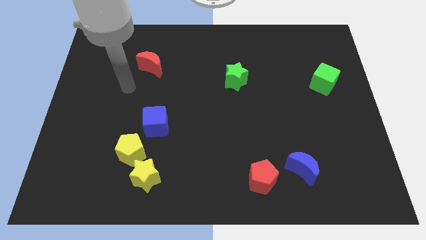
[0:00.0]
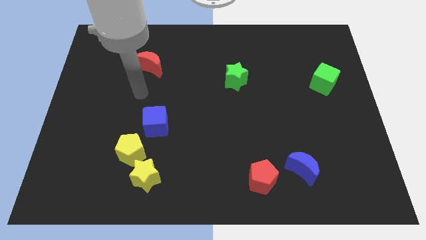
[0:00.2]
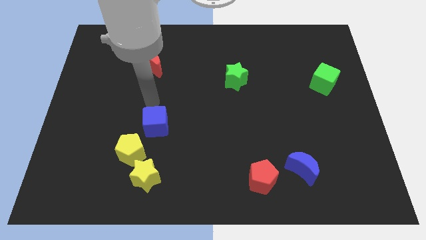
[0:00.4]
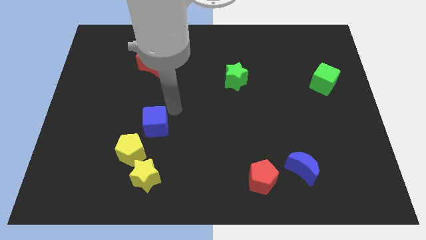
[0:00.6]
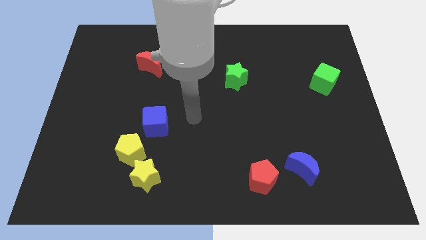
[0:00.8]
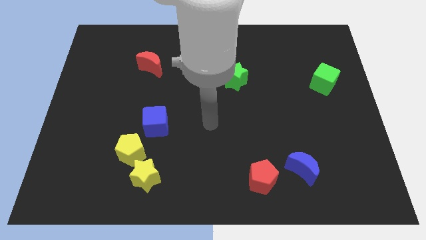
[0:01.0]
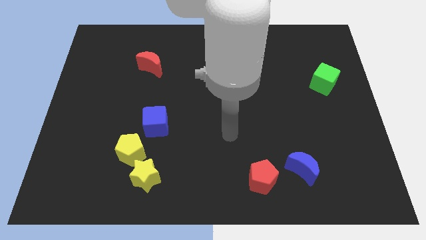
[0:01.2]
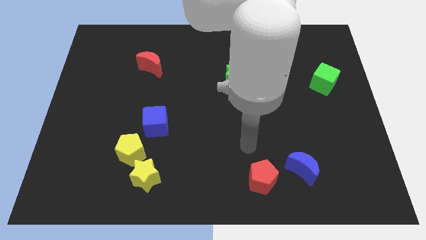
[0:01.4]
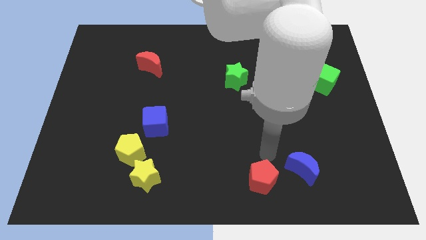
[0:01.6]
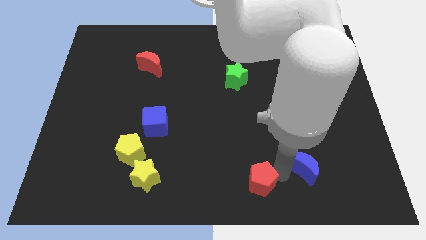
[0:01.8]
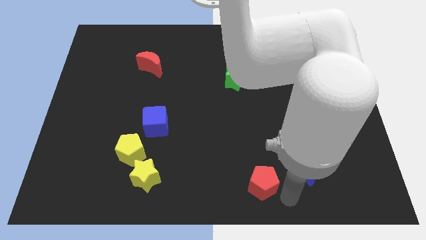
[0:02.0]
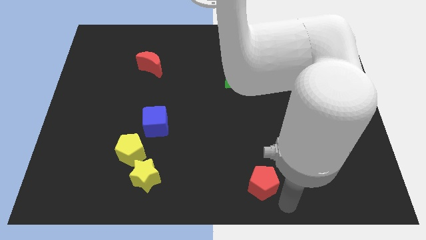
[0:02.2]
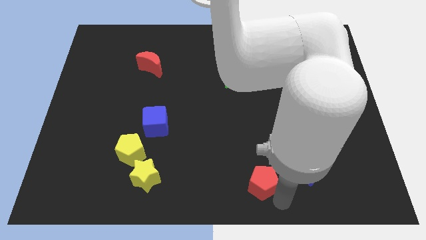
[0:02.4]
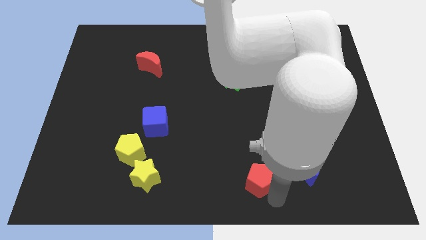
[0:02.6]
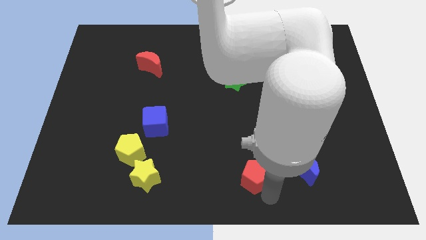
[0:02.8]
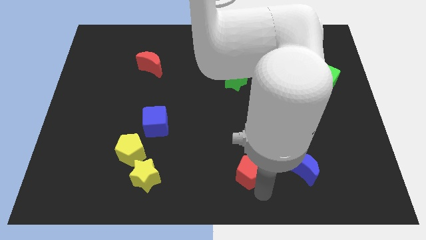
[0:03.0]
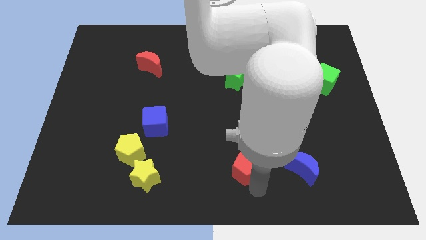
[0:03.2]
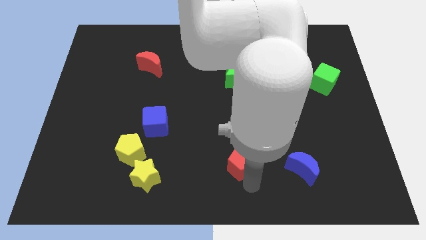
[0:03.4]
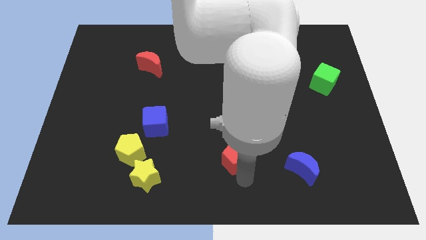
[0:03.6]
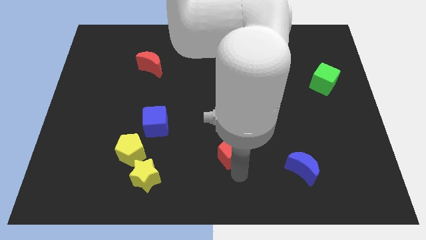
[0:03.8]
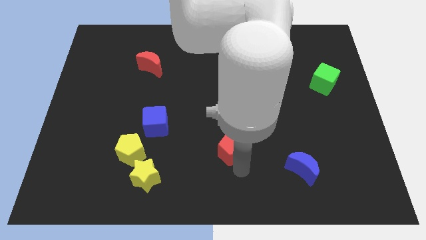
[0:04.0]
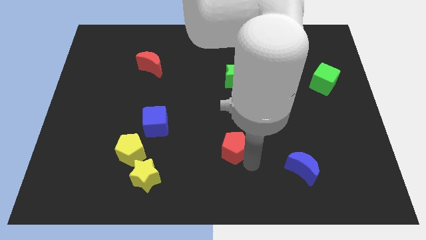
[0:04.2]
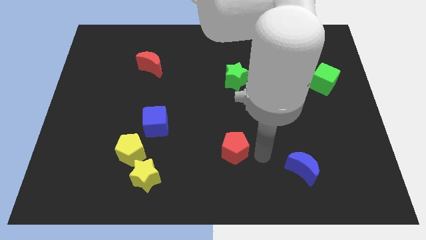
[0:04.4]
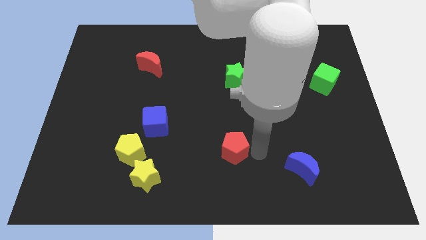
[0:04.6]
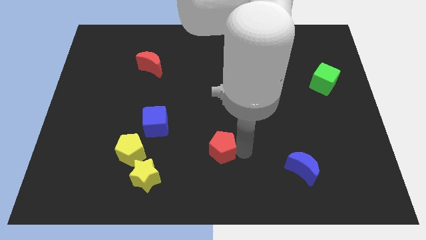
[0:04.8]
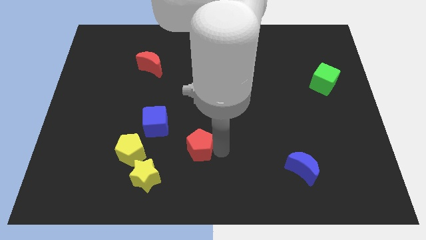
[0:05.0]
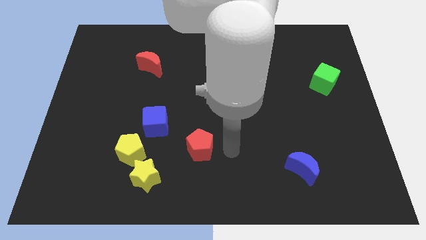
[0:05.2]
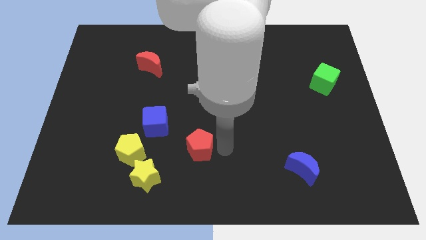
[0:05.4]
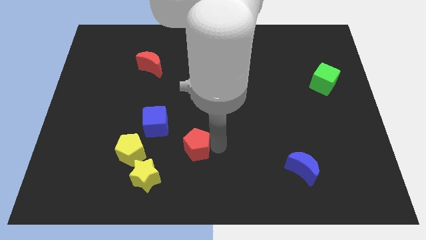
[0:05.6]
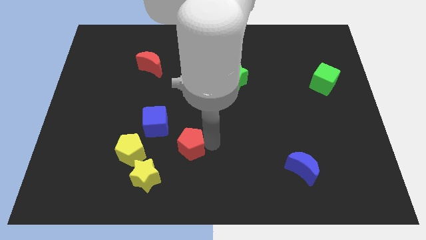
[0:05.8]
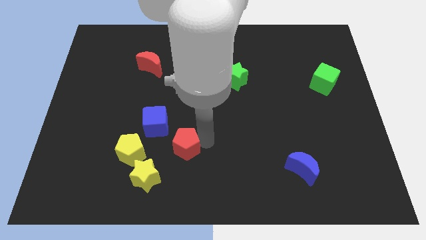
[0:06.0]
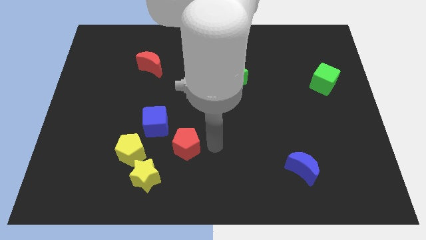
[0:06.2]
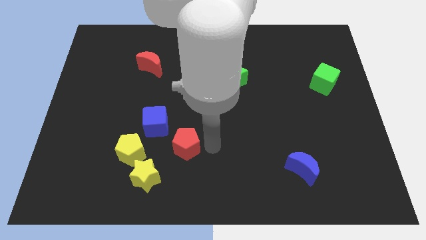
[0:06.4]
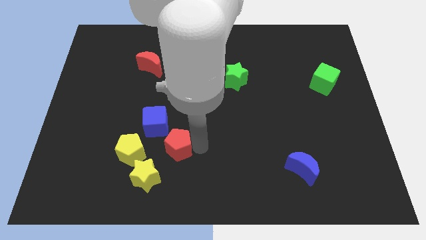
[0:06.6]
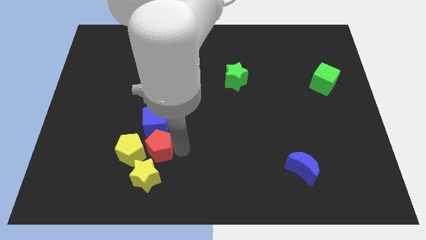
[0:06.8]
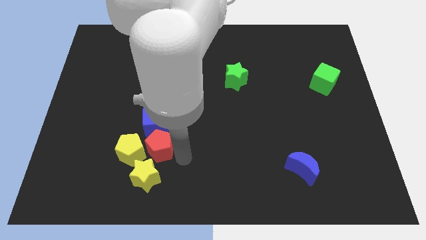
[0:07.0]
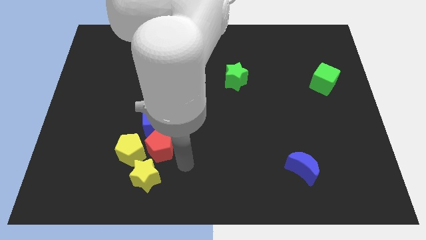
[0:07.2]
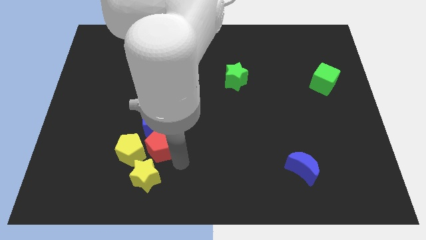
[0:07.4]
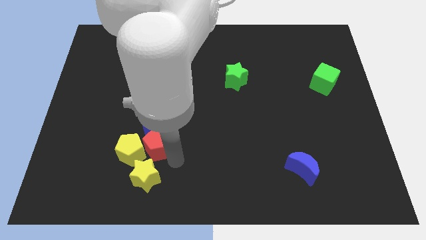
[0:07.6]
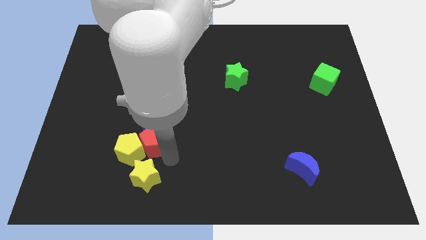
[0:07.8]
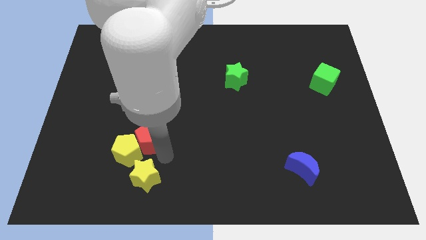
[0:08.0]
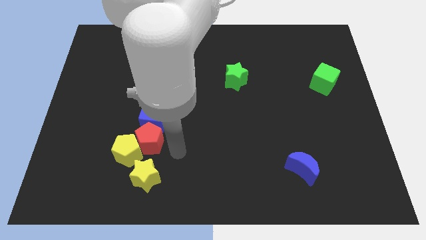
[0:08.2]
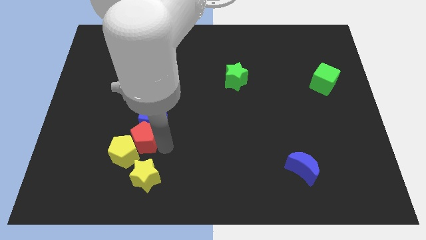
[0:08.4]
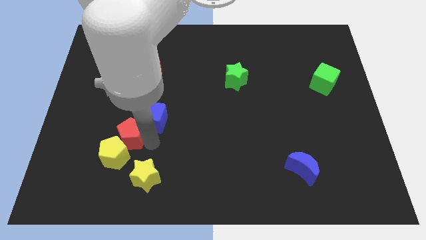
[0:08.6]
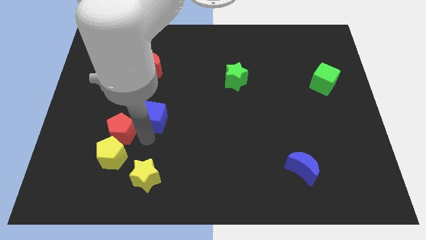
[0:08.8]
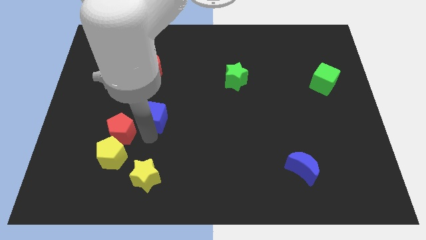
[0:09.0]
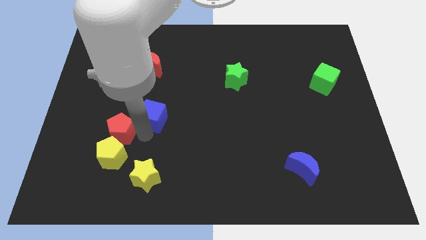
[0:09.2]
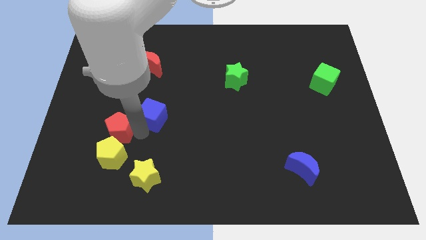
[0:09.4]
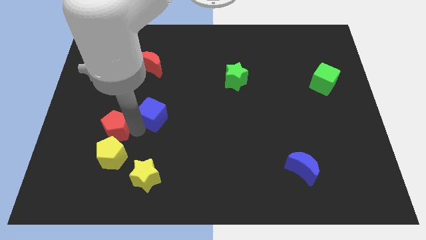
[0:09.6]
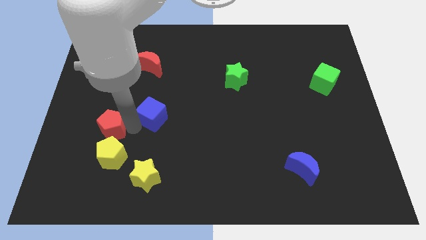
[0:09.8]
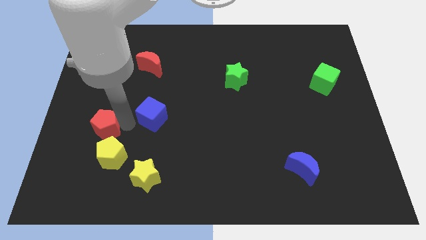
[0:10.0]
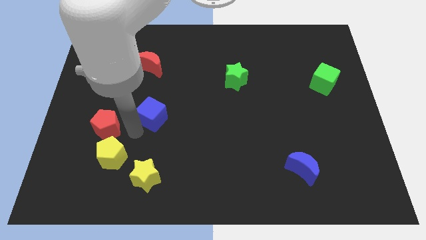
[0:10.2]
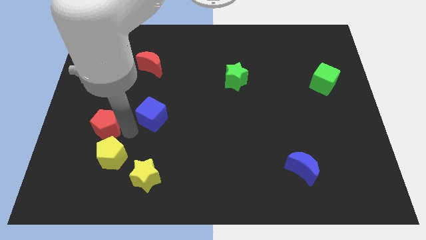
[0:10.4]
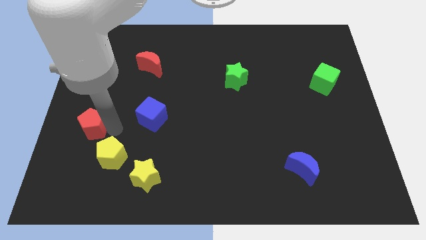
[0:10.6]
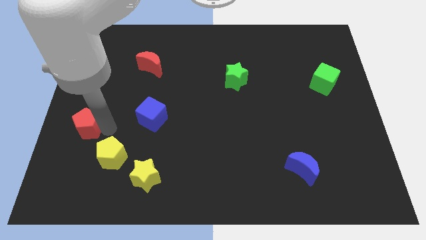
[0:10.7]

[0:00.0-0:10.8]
put the red pentagon to the left side

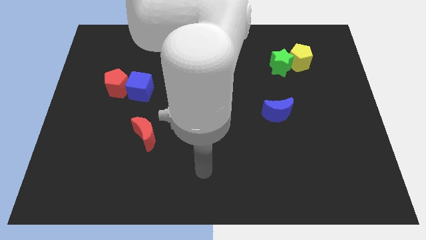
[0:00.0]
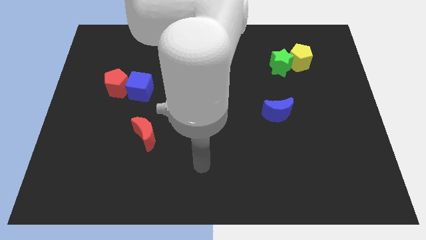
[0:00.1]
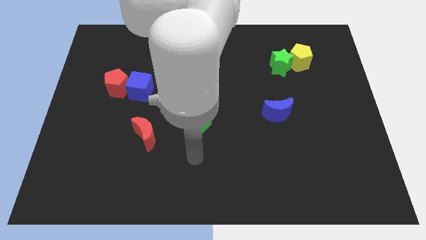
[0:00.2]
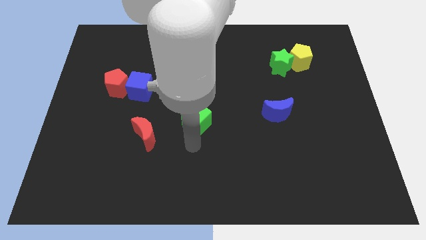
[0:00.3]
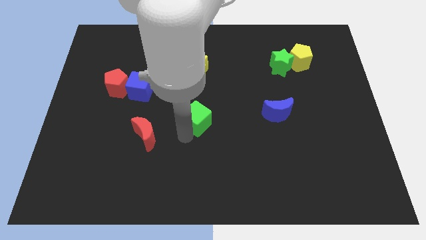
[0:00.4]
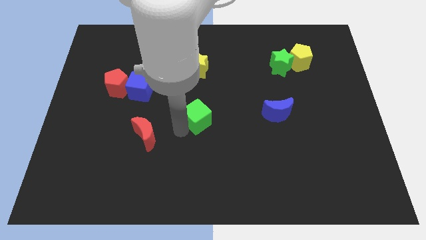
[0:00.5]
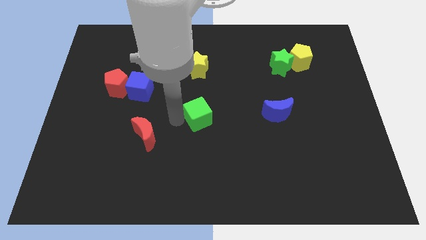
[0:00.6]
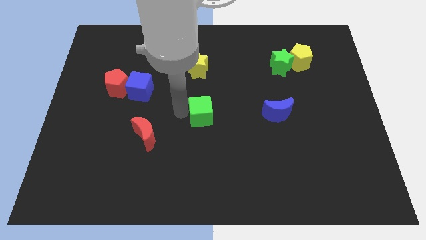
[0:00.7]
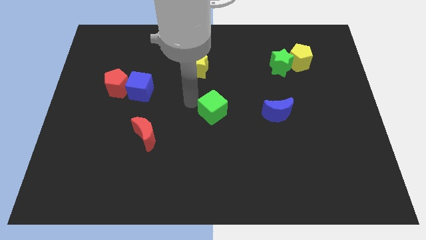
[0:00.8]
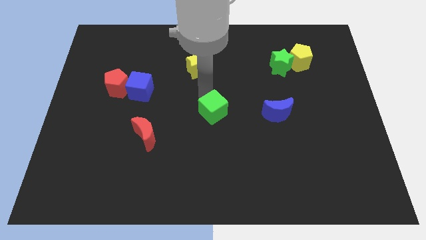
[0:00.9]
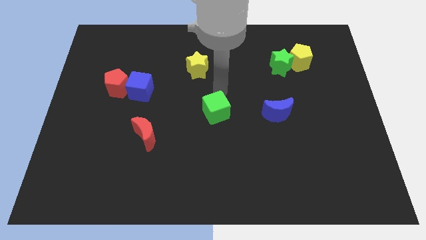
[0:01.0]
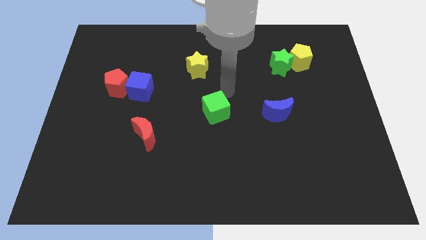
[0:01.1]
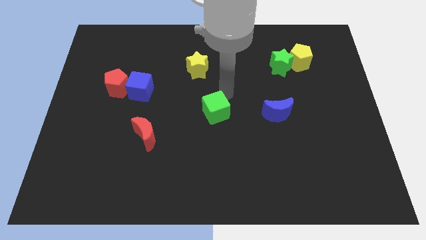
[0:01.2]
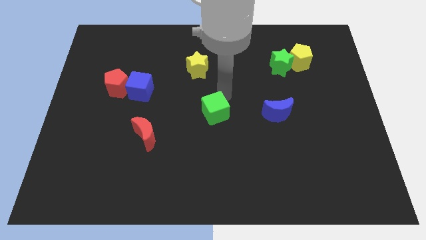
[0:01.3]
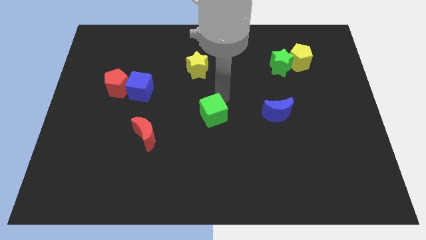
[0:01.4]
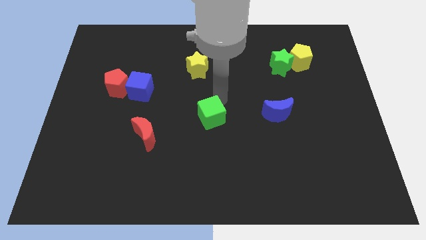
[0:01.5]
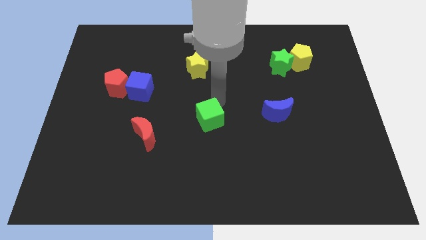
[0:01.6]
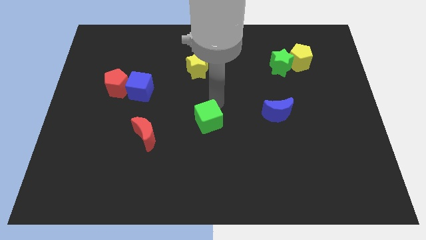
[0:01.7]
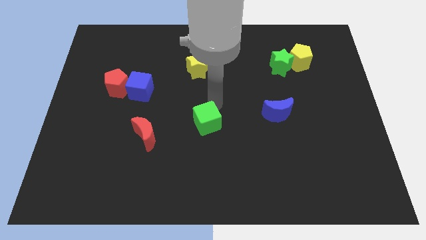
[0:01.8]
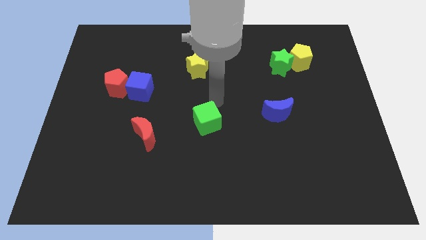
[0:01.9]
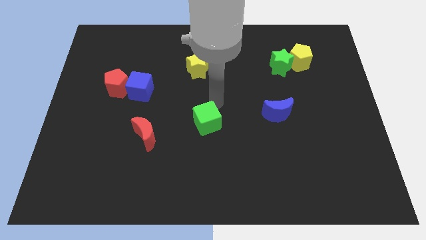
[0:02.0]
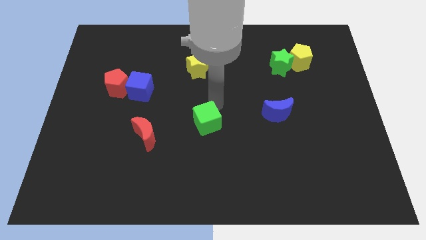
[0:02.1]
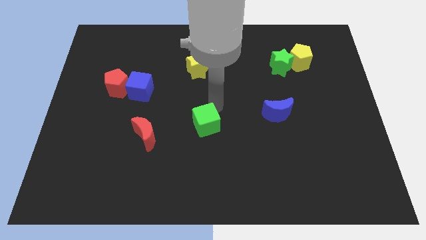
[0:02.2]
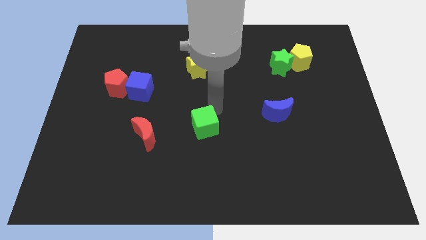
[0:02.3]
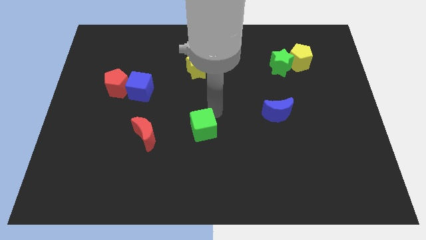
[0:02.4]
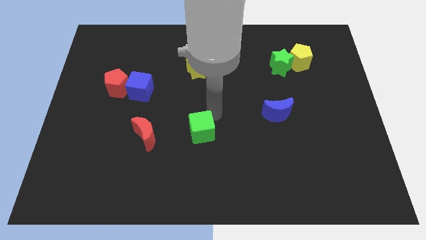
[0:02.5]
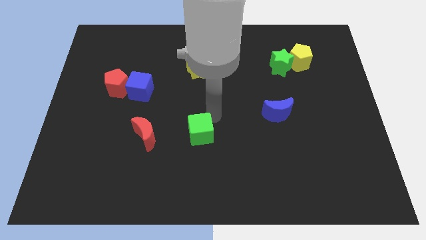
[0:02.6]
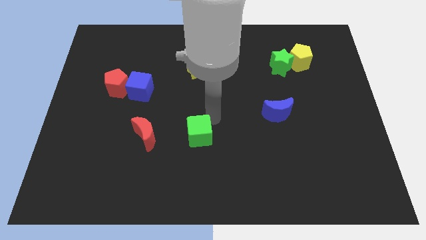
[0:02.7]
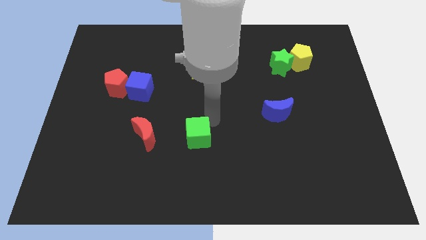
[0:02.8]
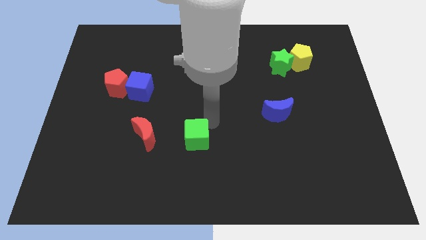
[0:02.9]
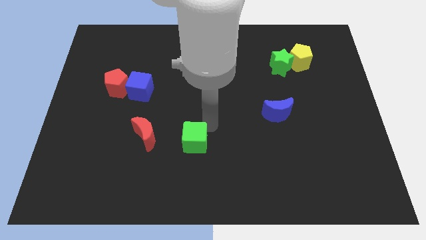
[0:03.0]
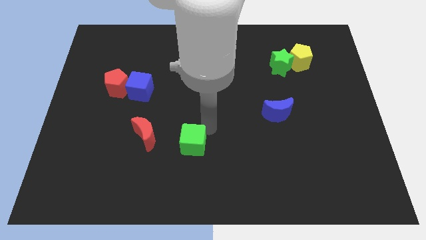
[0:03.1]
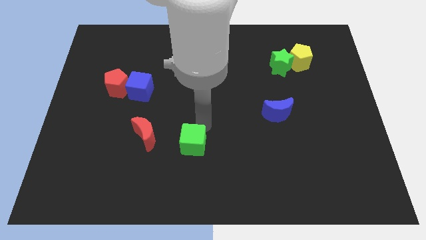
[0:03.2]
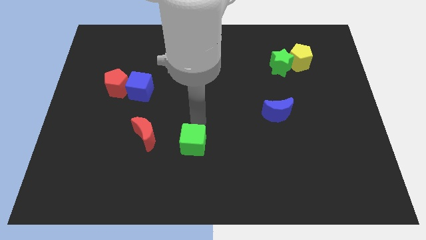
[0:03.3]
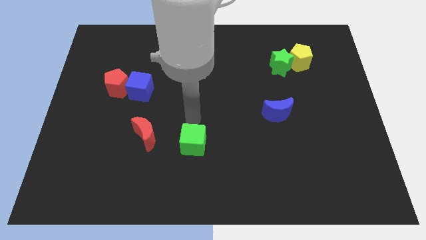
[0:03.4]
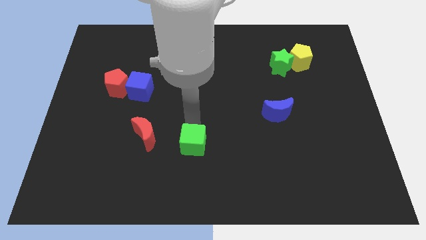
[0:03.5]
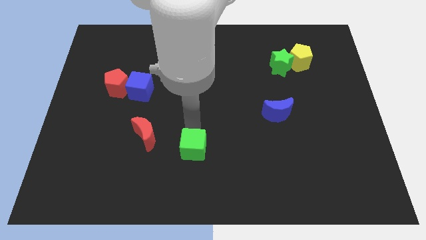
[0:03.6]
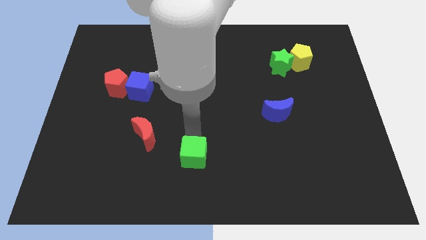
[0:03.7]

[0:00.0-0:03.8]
put the green cube to the bottom side
